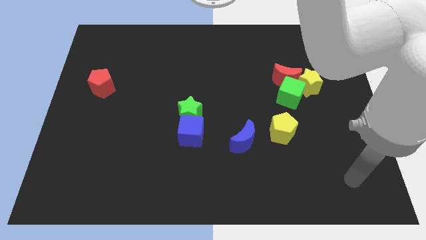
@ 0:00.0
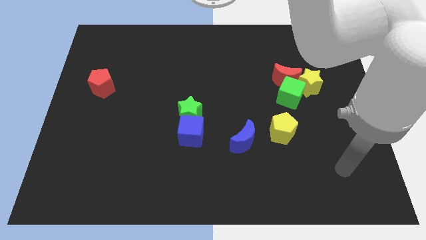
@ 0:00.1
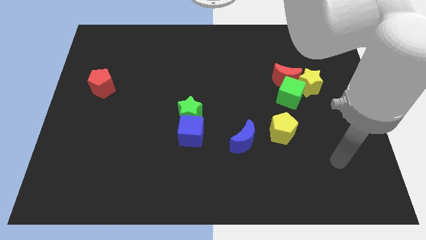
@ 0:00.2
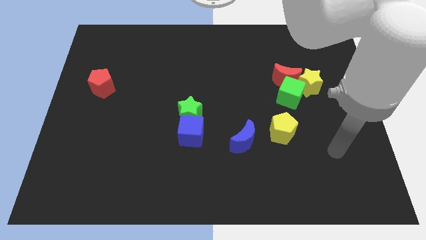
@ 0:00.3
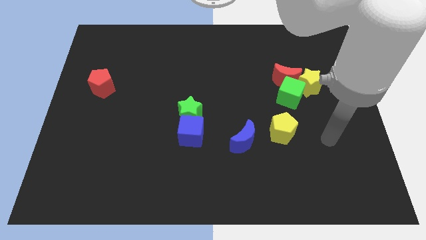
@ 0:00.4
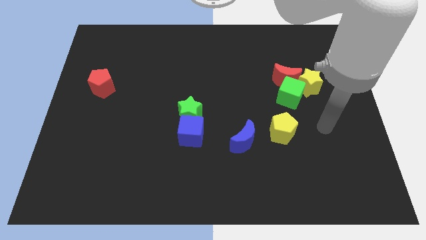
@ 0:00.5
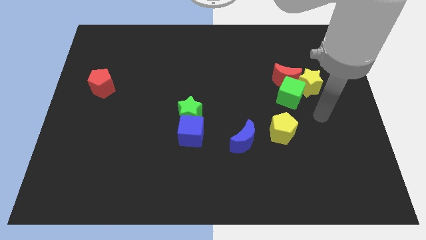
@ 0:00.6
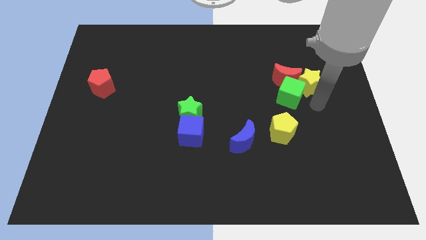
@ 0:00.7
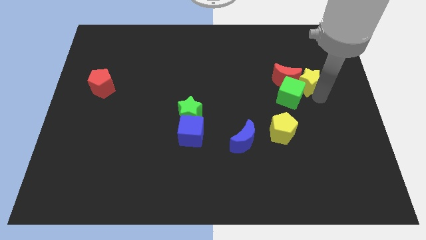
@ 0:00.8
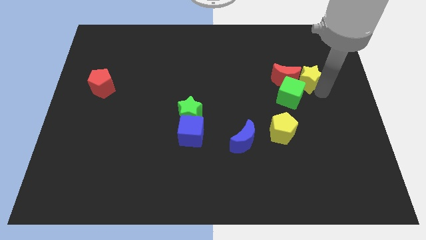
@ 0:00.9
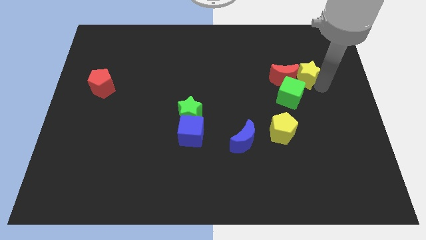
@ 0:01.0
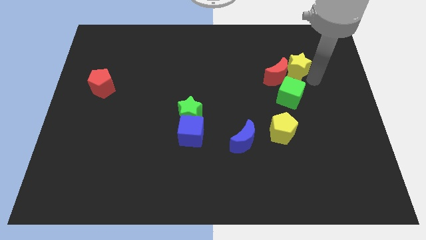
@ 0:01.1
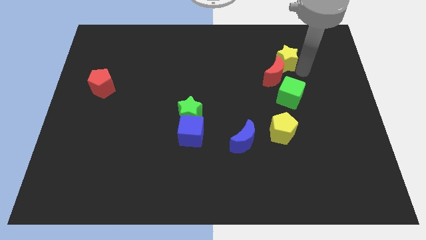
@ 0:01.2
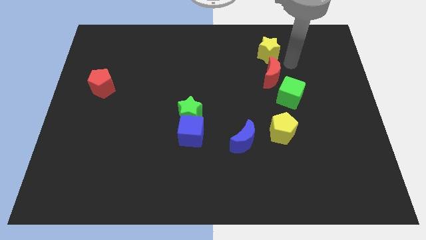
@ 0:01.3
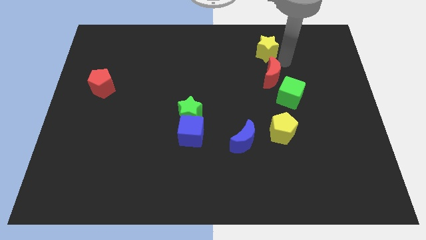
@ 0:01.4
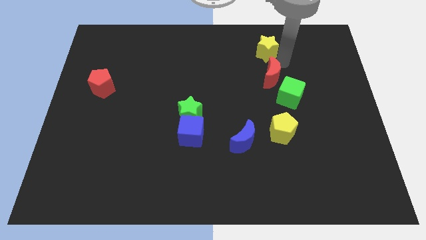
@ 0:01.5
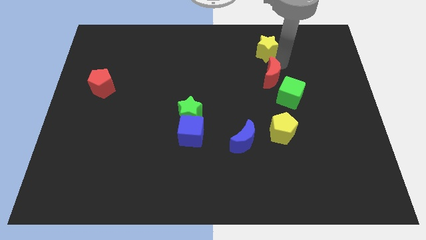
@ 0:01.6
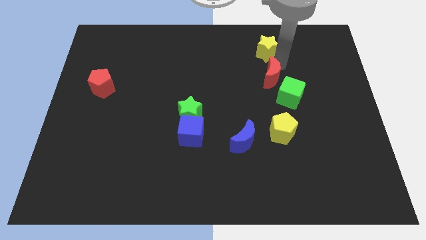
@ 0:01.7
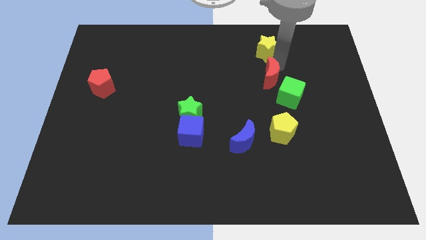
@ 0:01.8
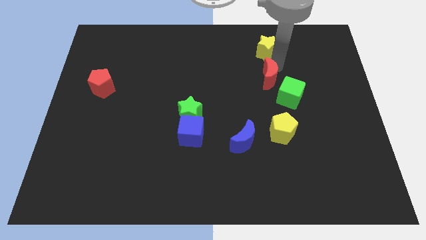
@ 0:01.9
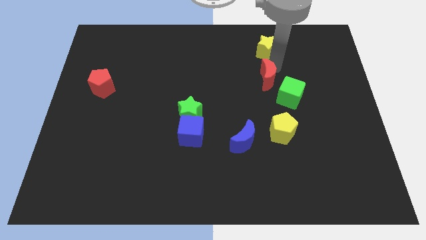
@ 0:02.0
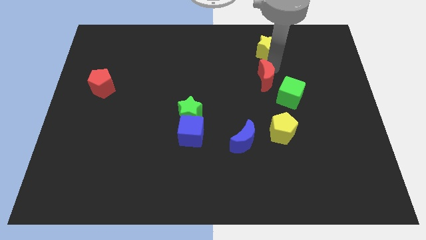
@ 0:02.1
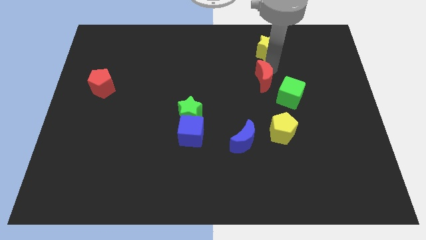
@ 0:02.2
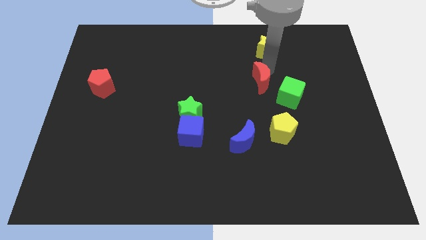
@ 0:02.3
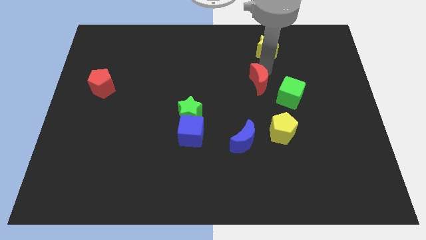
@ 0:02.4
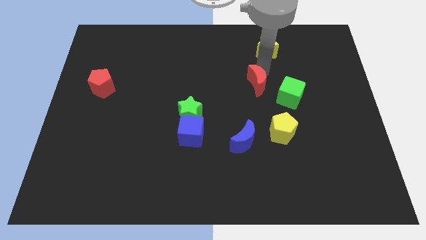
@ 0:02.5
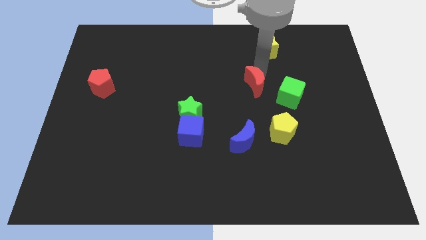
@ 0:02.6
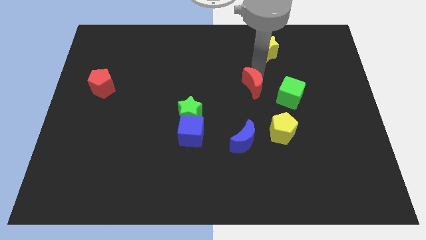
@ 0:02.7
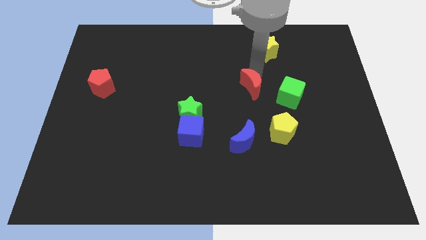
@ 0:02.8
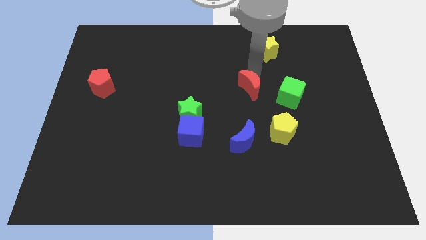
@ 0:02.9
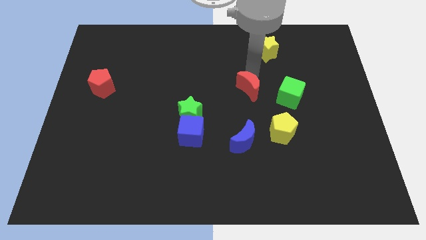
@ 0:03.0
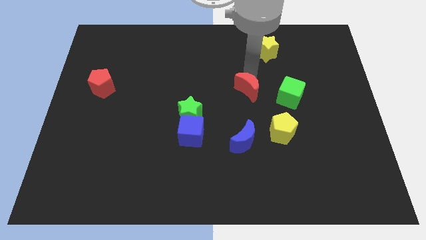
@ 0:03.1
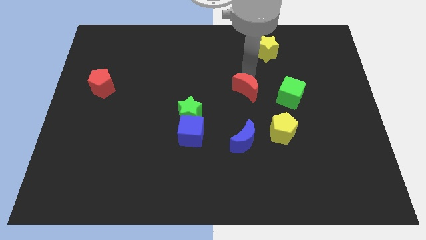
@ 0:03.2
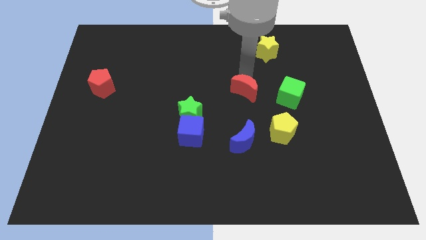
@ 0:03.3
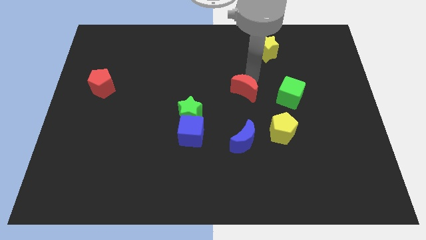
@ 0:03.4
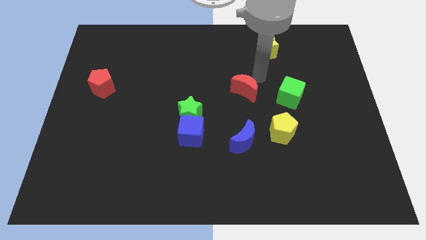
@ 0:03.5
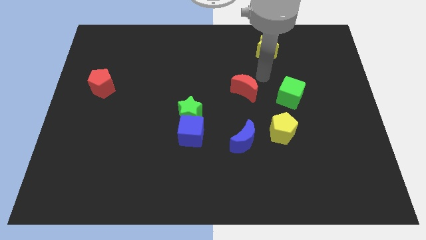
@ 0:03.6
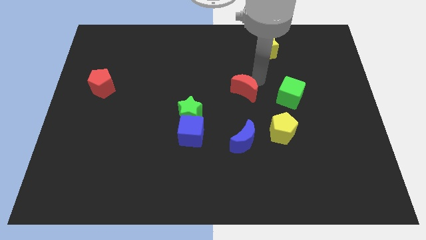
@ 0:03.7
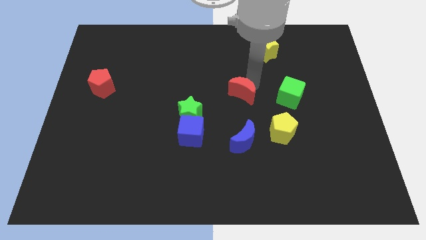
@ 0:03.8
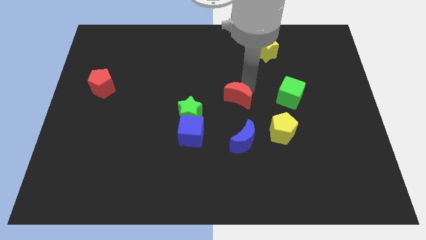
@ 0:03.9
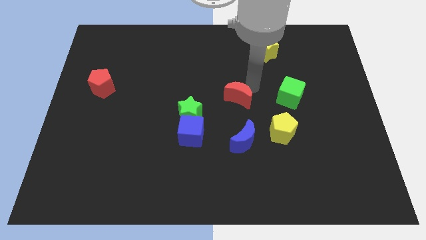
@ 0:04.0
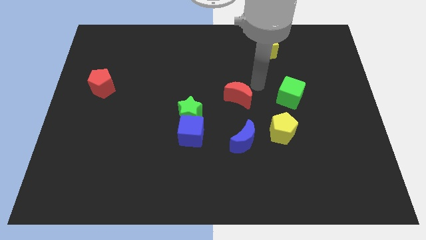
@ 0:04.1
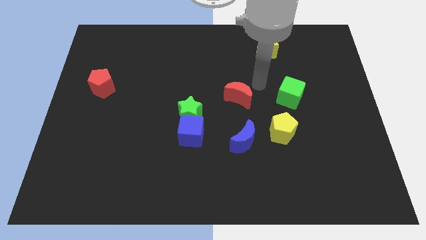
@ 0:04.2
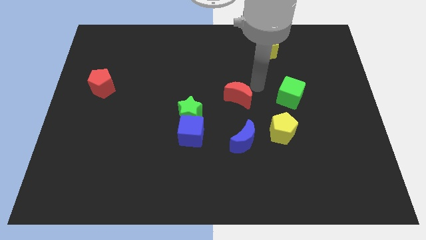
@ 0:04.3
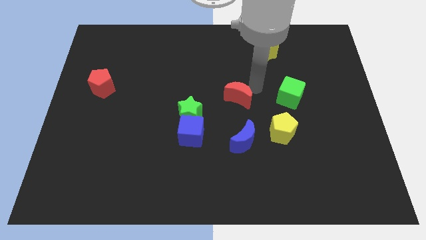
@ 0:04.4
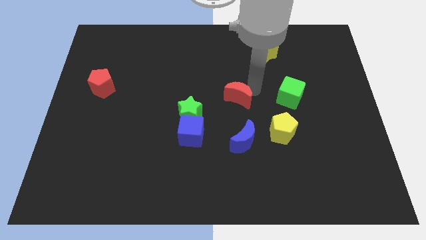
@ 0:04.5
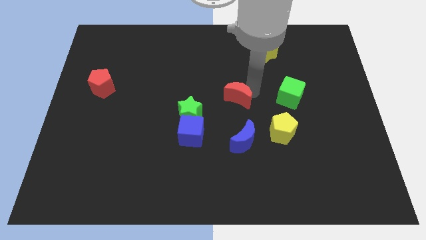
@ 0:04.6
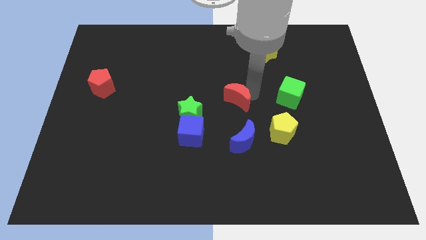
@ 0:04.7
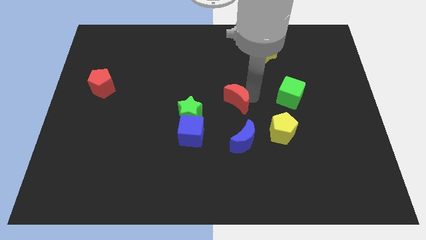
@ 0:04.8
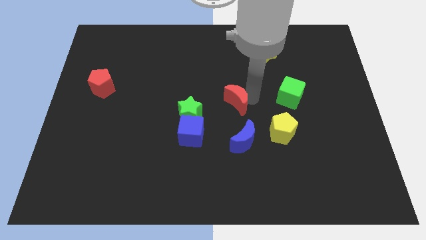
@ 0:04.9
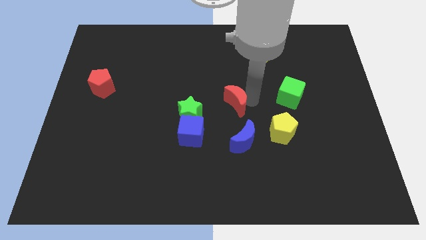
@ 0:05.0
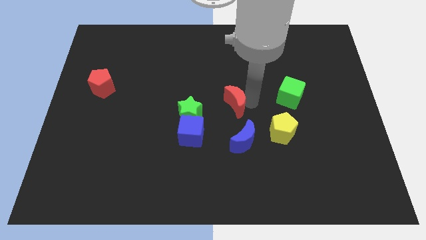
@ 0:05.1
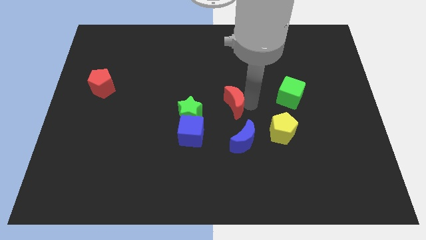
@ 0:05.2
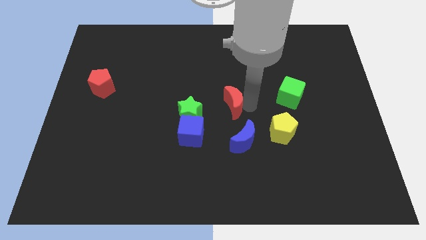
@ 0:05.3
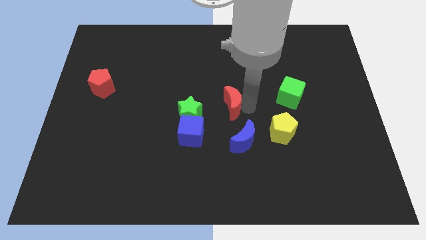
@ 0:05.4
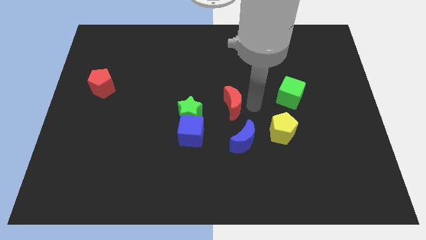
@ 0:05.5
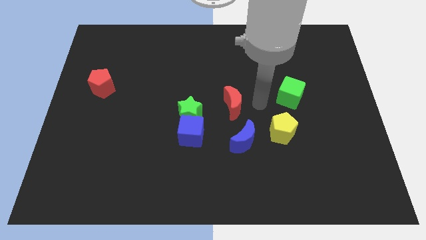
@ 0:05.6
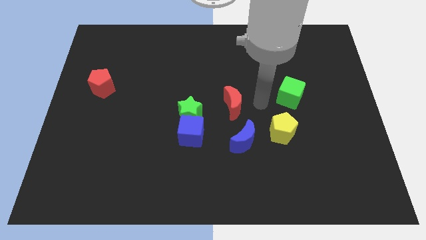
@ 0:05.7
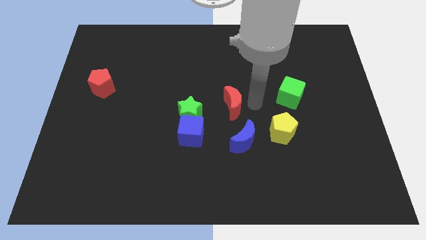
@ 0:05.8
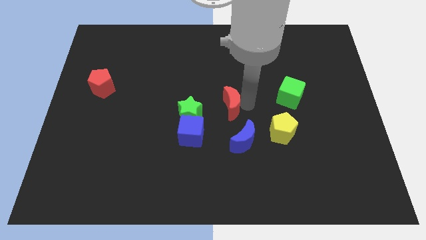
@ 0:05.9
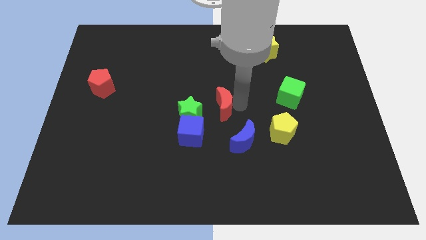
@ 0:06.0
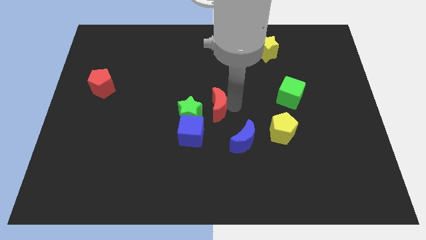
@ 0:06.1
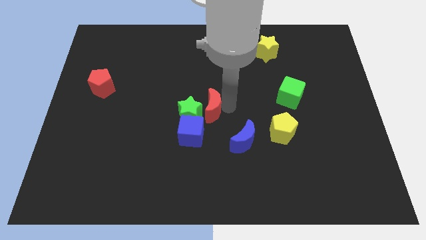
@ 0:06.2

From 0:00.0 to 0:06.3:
slide the red moon close to the green star
